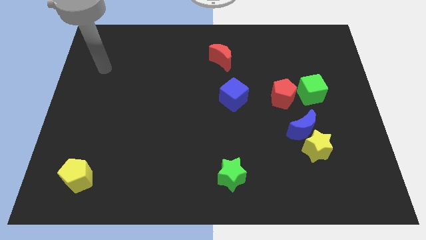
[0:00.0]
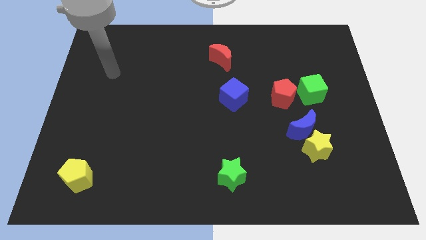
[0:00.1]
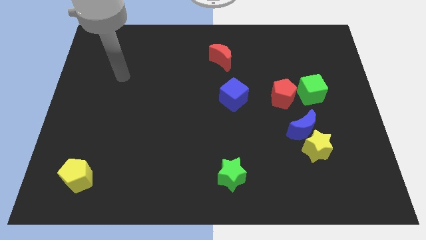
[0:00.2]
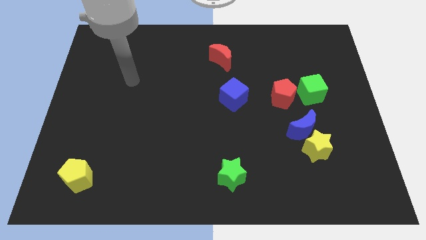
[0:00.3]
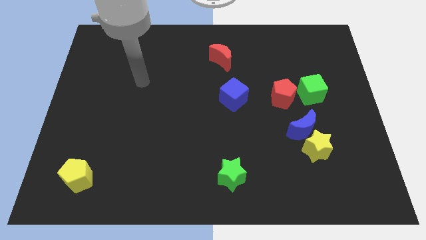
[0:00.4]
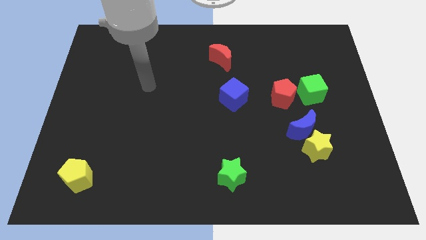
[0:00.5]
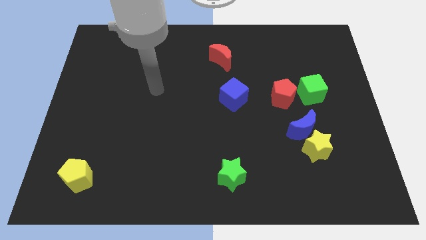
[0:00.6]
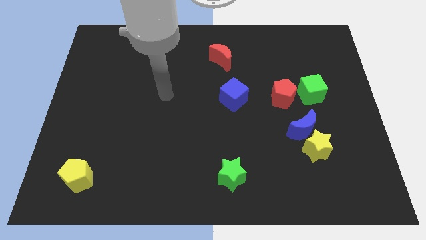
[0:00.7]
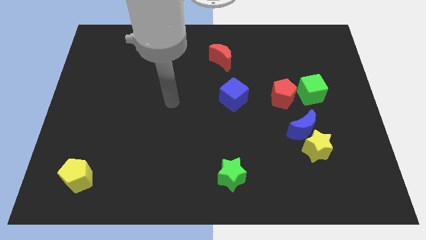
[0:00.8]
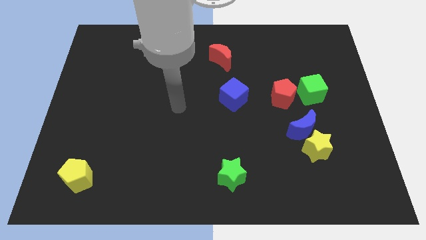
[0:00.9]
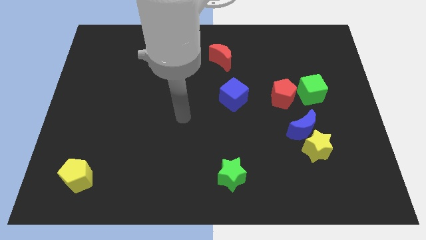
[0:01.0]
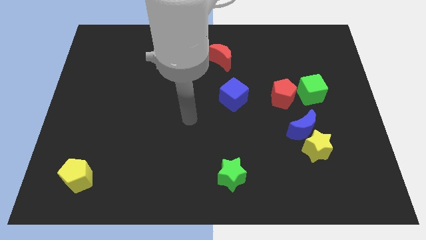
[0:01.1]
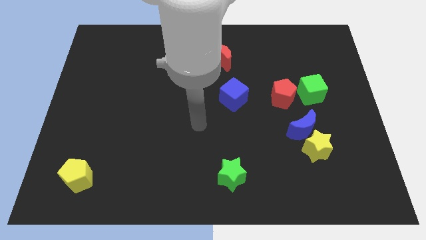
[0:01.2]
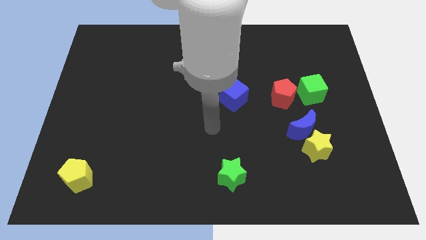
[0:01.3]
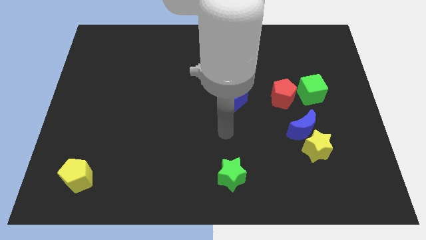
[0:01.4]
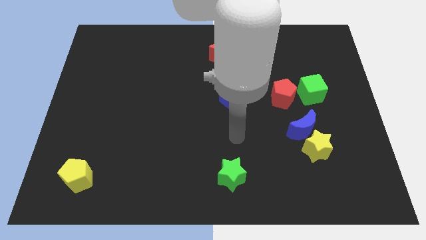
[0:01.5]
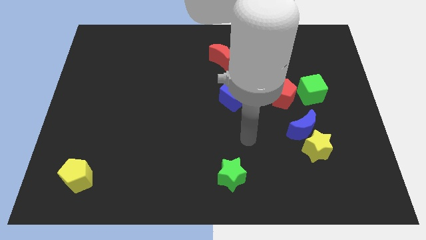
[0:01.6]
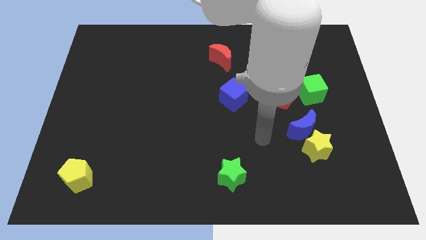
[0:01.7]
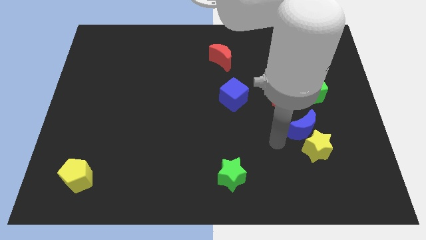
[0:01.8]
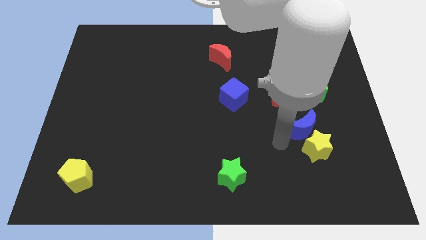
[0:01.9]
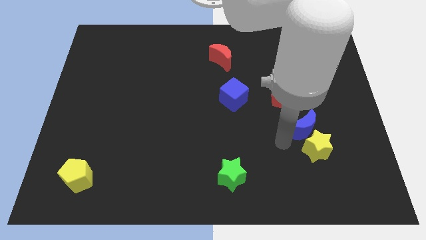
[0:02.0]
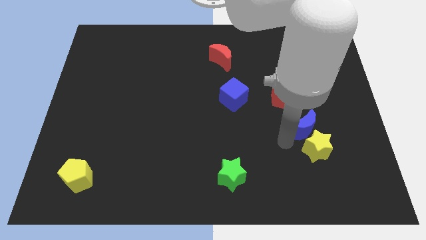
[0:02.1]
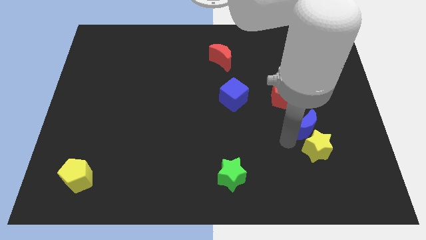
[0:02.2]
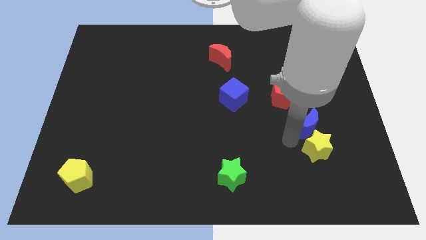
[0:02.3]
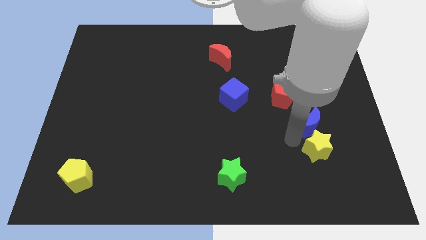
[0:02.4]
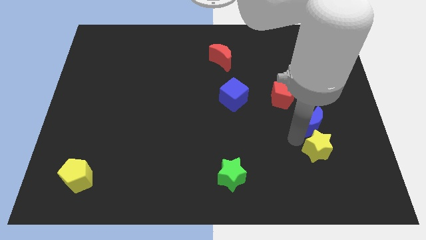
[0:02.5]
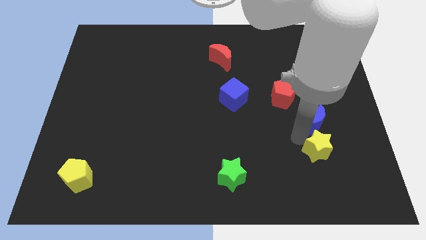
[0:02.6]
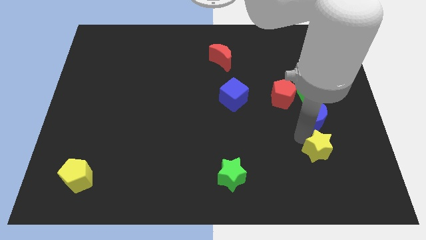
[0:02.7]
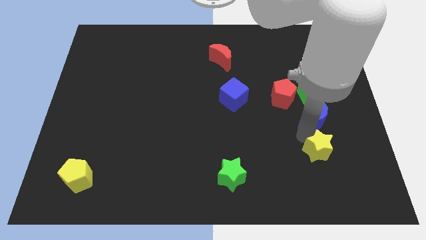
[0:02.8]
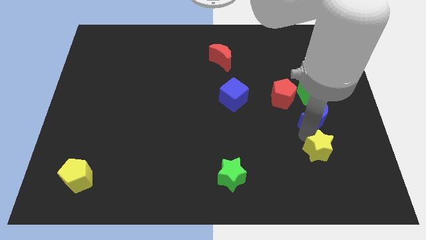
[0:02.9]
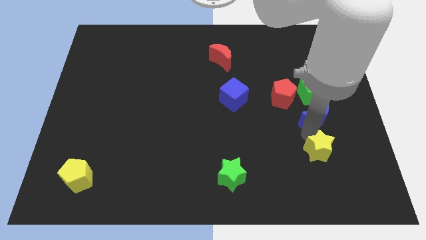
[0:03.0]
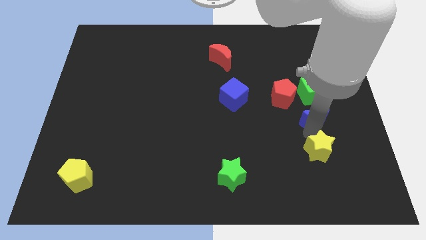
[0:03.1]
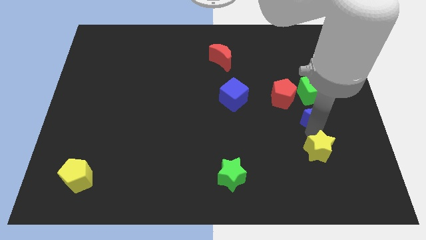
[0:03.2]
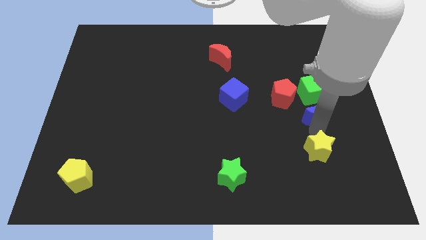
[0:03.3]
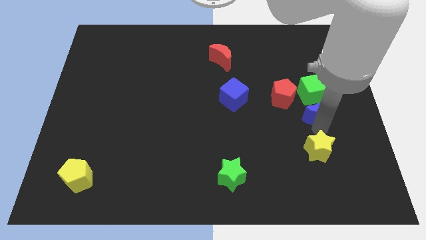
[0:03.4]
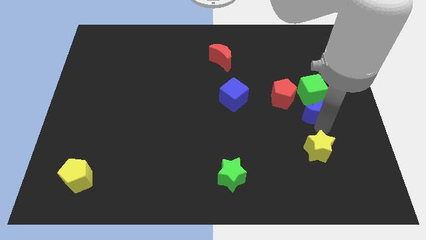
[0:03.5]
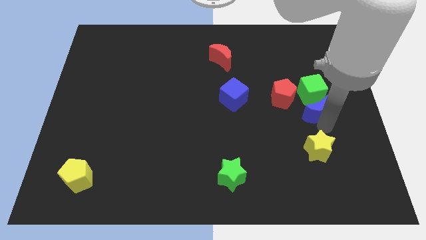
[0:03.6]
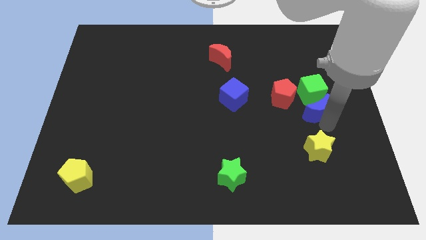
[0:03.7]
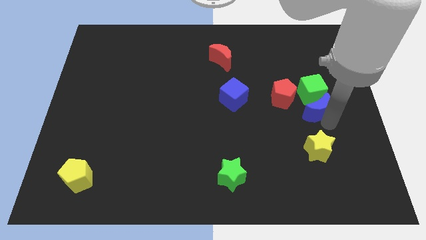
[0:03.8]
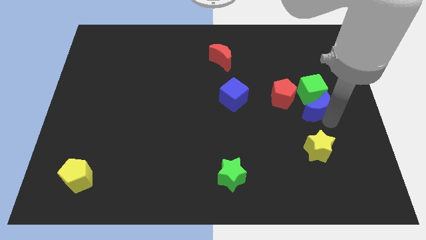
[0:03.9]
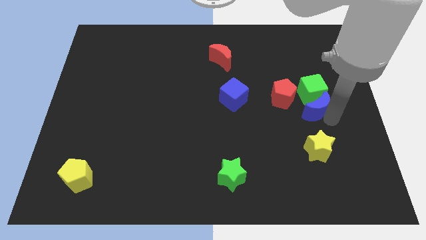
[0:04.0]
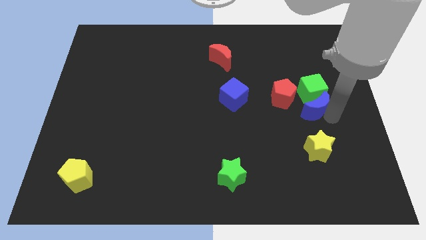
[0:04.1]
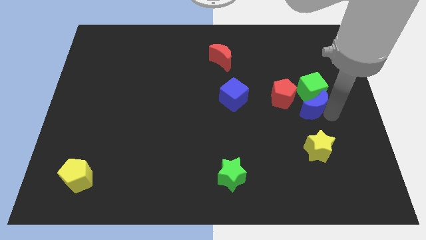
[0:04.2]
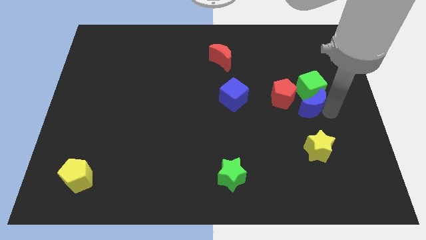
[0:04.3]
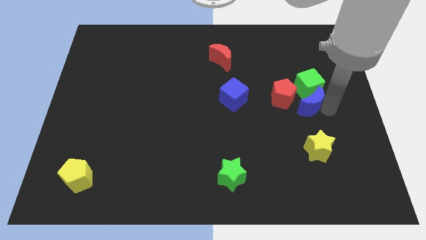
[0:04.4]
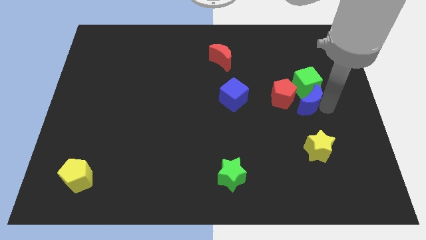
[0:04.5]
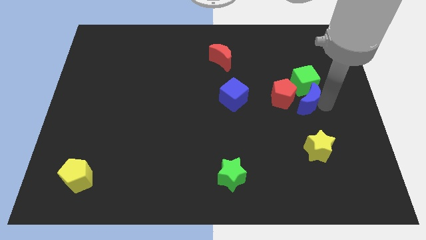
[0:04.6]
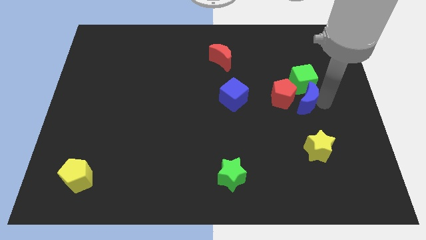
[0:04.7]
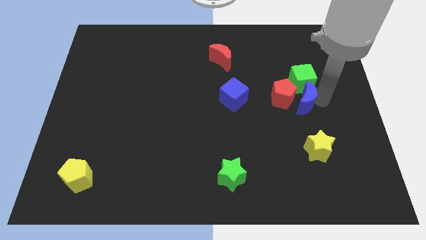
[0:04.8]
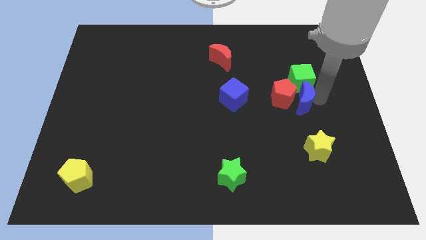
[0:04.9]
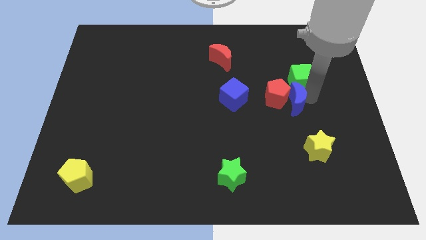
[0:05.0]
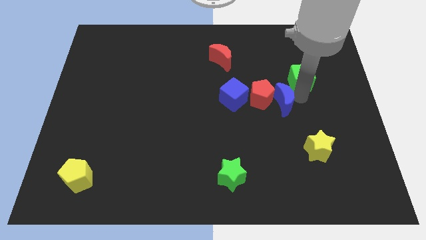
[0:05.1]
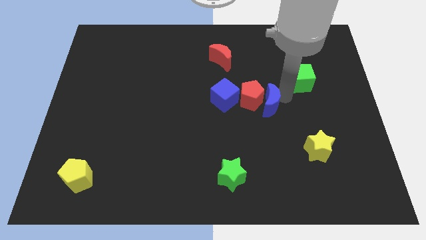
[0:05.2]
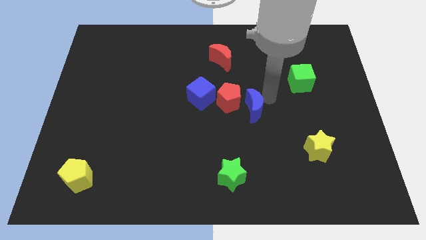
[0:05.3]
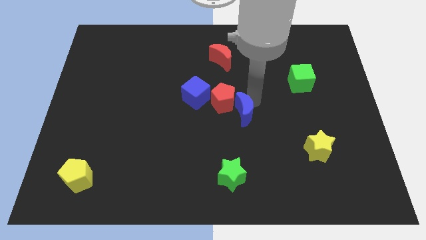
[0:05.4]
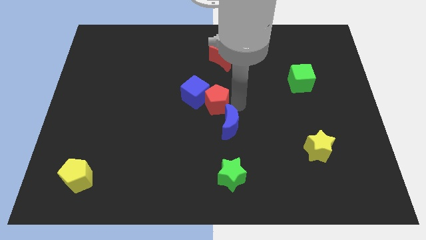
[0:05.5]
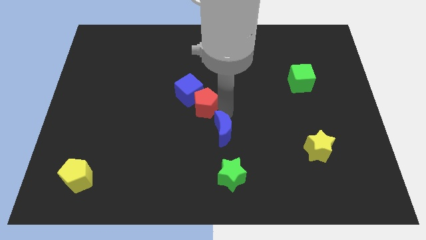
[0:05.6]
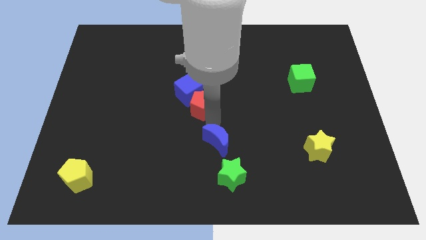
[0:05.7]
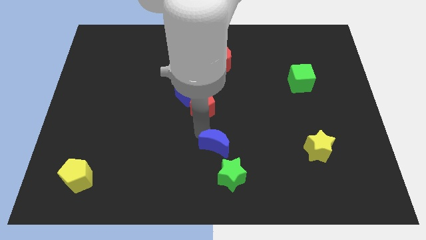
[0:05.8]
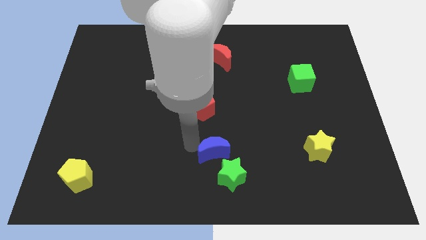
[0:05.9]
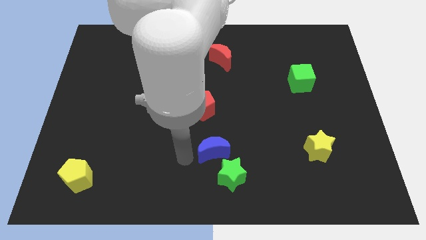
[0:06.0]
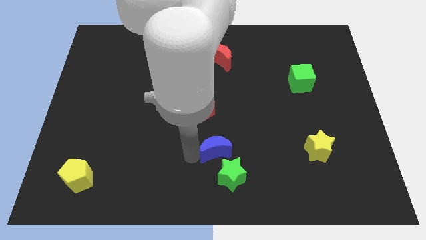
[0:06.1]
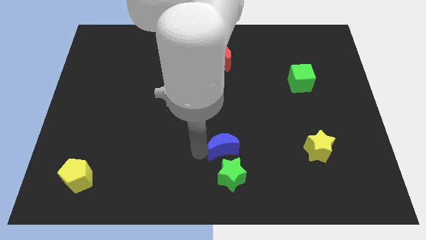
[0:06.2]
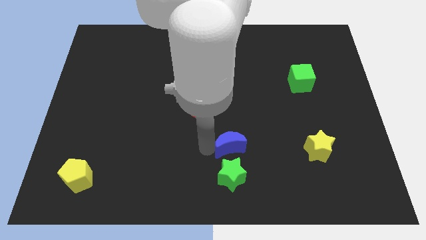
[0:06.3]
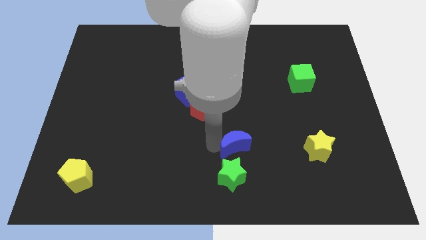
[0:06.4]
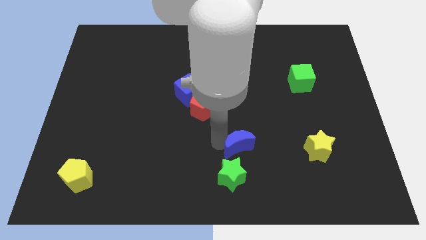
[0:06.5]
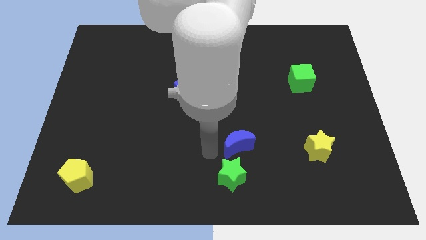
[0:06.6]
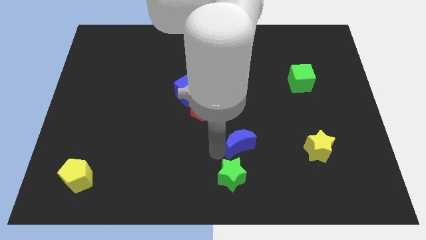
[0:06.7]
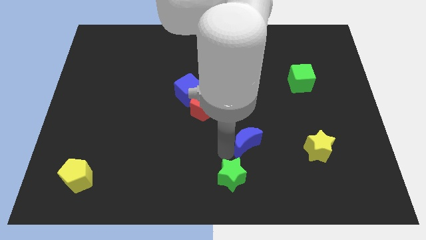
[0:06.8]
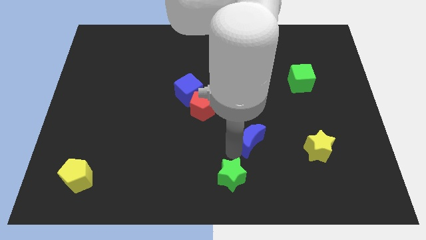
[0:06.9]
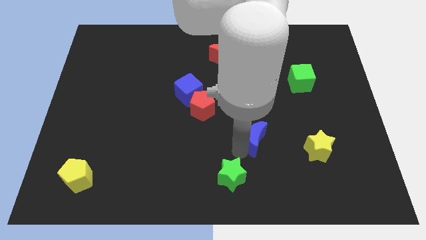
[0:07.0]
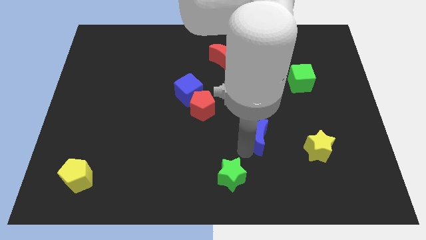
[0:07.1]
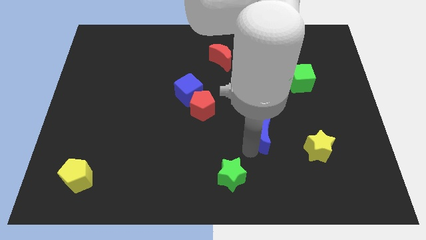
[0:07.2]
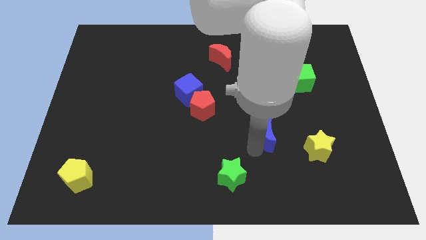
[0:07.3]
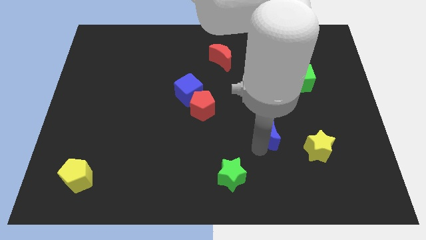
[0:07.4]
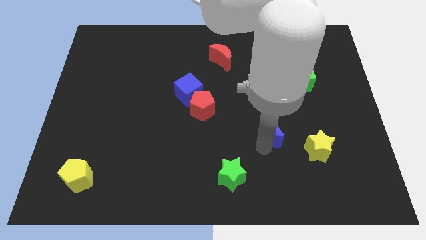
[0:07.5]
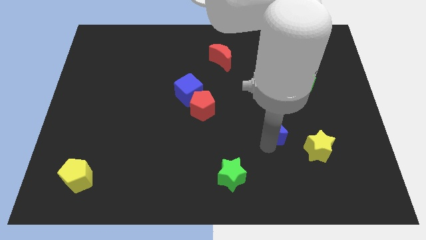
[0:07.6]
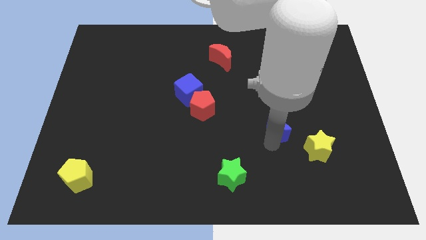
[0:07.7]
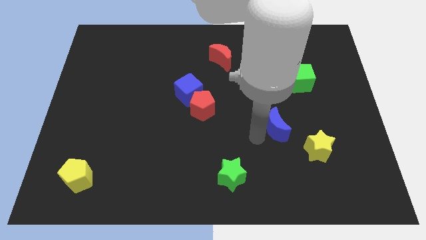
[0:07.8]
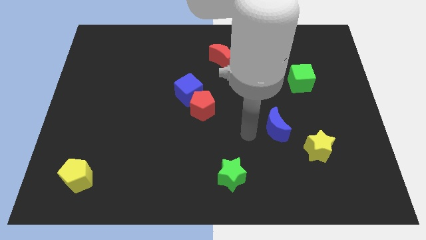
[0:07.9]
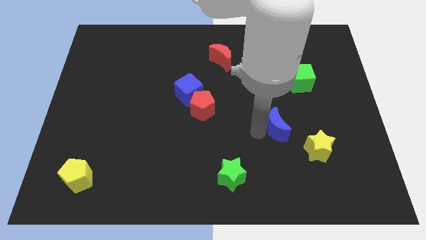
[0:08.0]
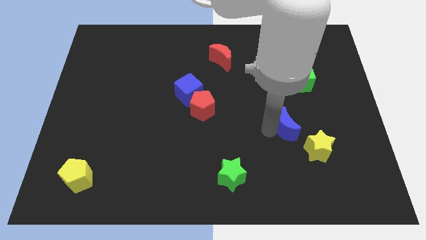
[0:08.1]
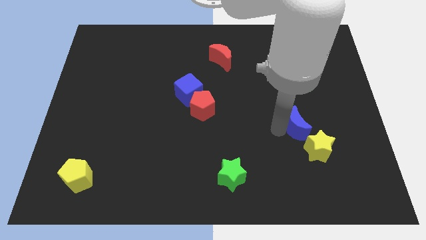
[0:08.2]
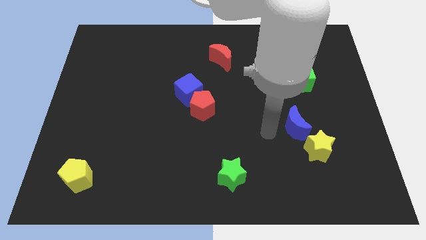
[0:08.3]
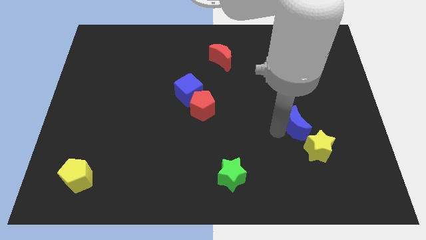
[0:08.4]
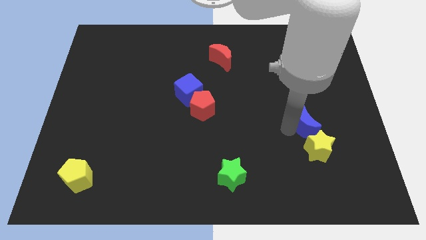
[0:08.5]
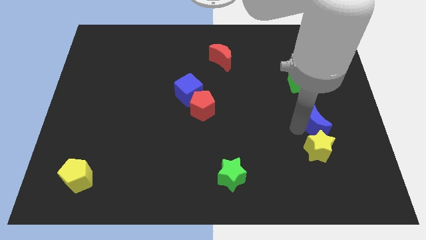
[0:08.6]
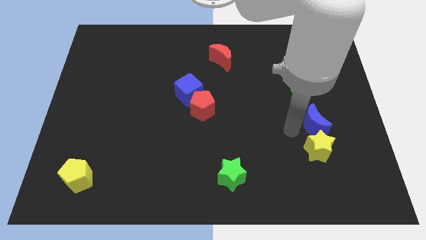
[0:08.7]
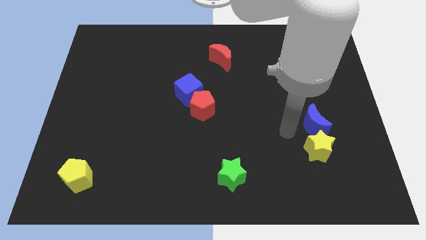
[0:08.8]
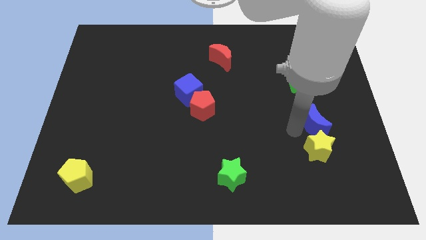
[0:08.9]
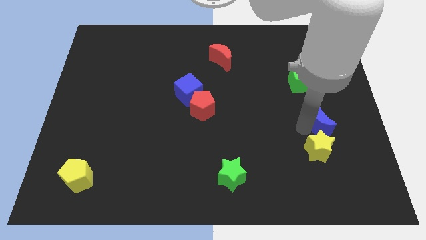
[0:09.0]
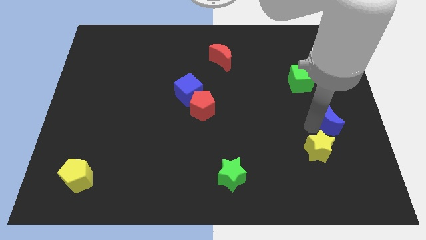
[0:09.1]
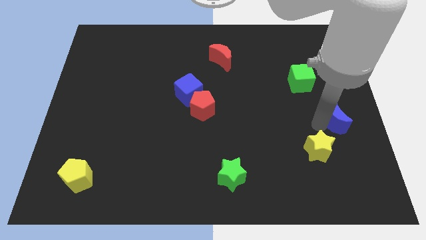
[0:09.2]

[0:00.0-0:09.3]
push the blue moon to the right side of the board
